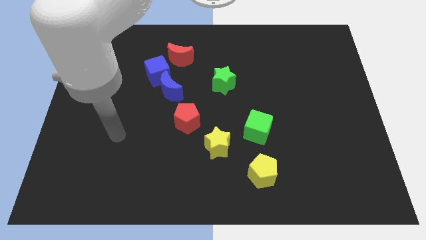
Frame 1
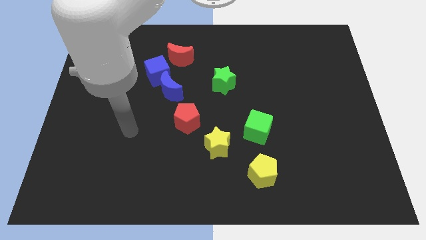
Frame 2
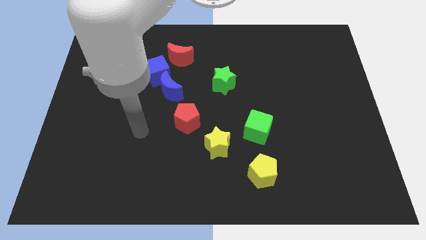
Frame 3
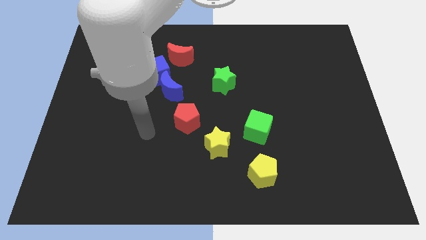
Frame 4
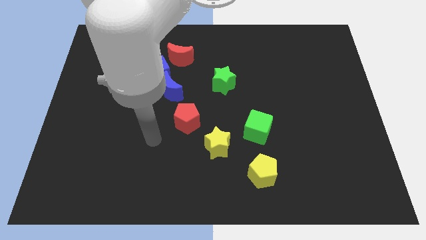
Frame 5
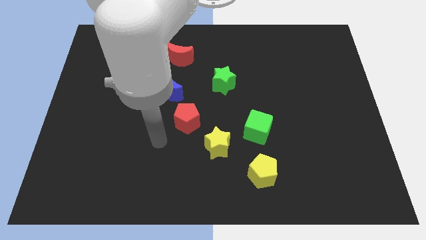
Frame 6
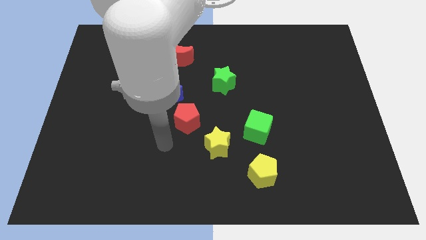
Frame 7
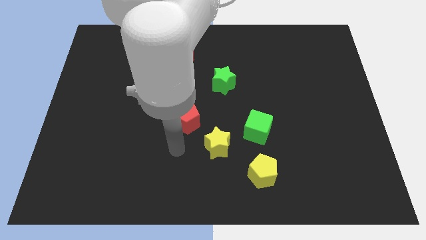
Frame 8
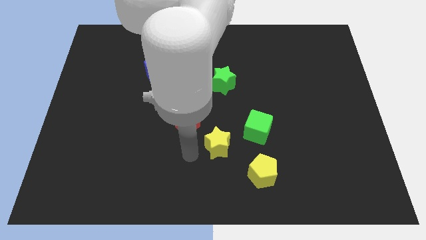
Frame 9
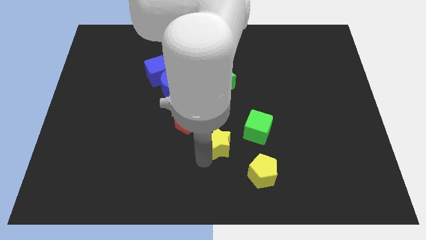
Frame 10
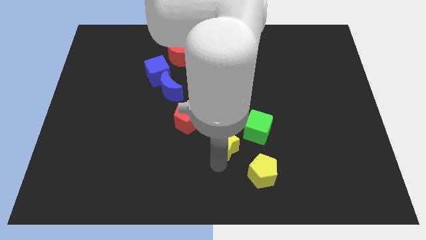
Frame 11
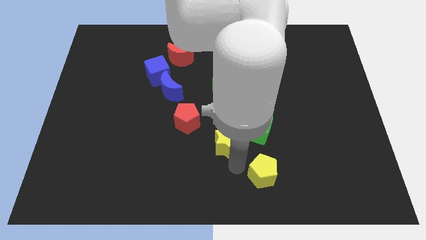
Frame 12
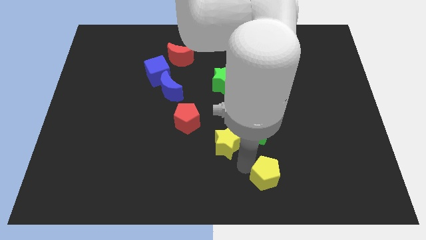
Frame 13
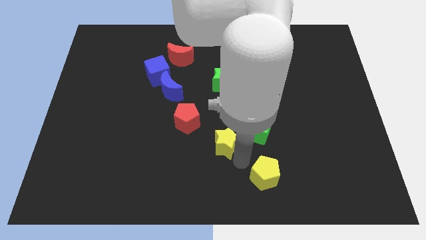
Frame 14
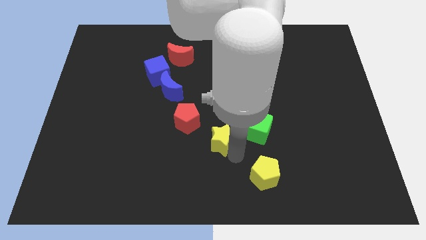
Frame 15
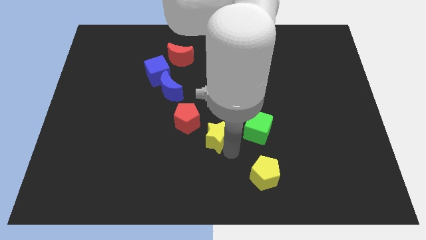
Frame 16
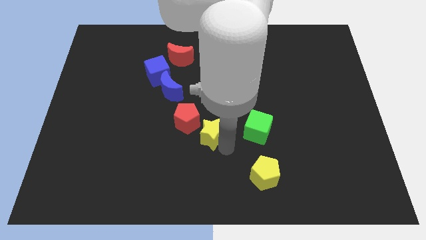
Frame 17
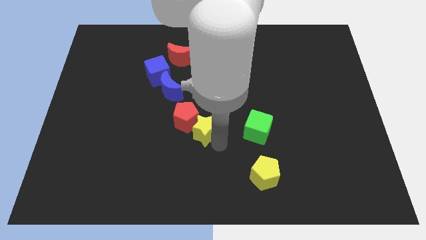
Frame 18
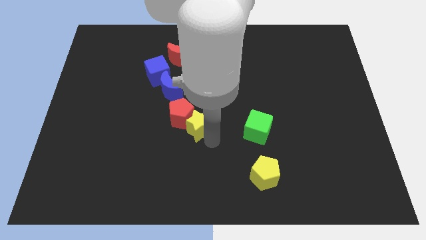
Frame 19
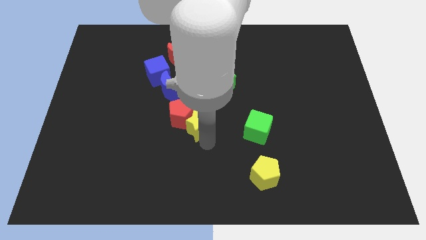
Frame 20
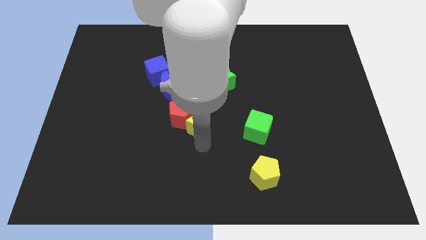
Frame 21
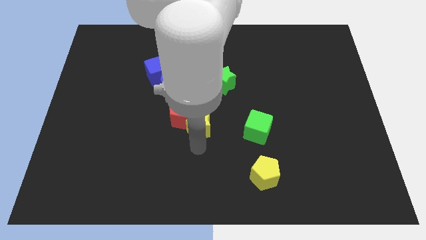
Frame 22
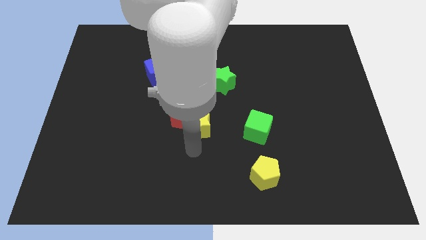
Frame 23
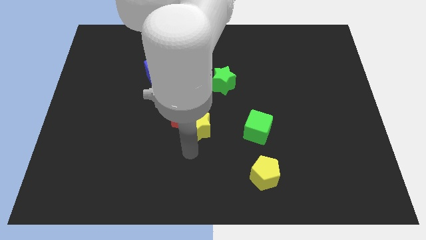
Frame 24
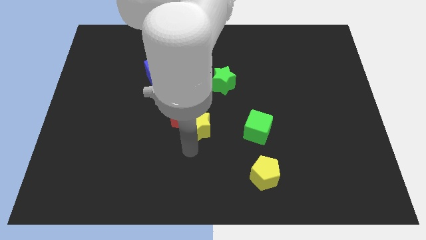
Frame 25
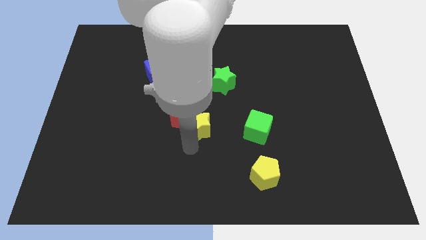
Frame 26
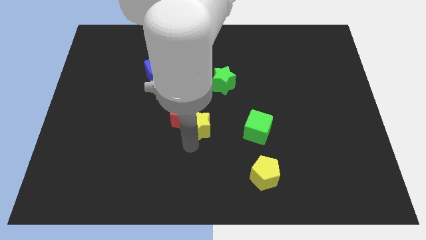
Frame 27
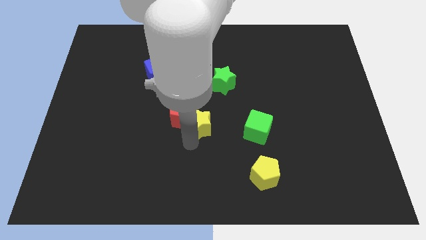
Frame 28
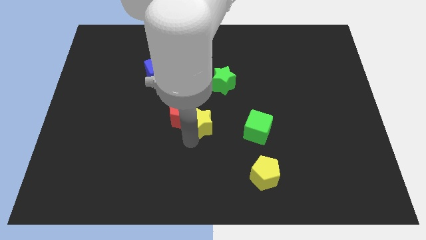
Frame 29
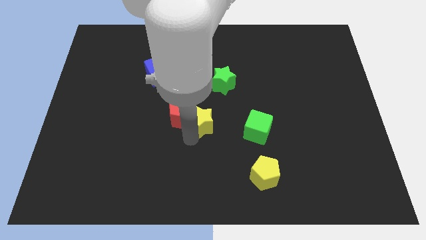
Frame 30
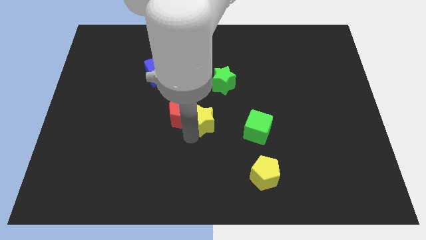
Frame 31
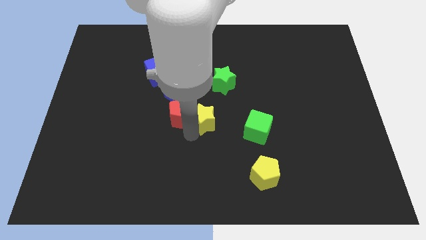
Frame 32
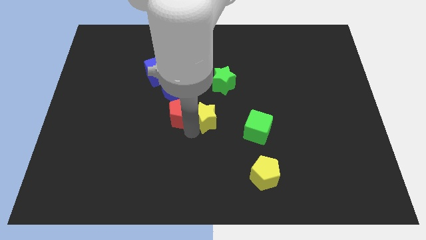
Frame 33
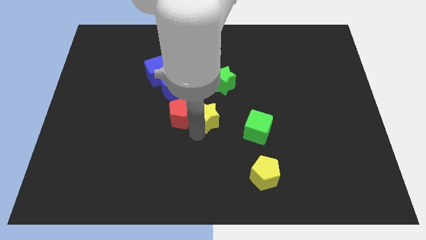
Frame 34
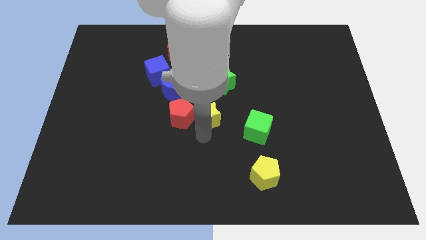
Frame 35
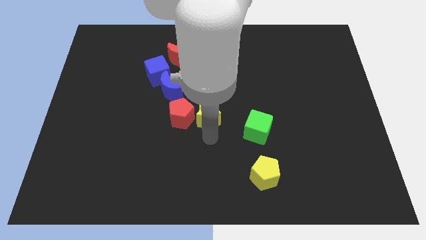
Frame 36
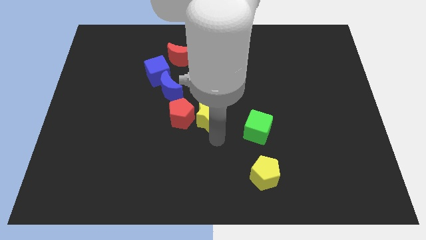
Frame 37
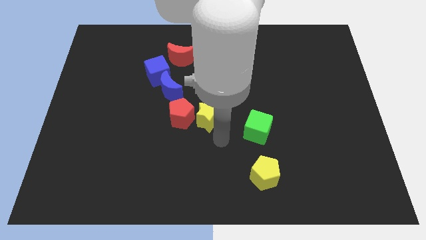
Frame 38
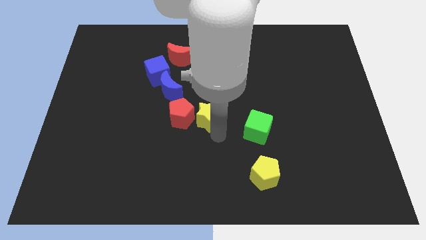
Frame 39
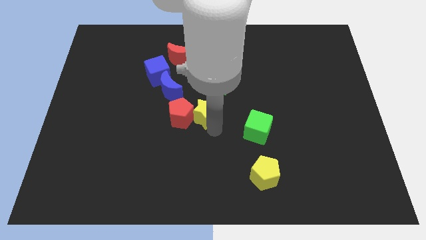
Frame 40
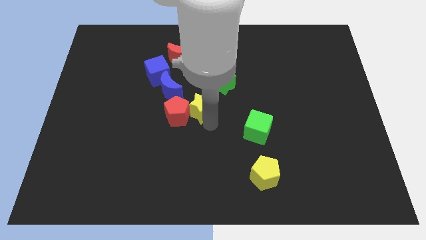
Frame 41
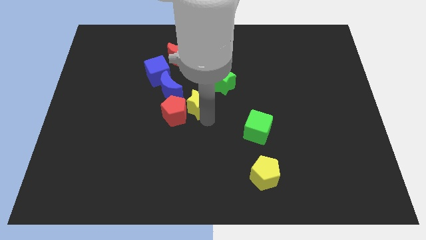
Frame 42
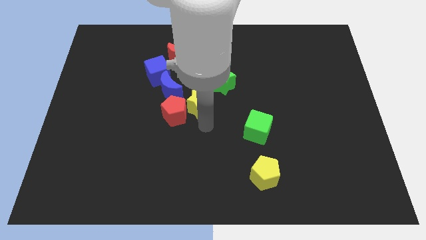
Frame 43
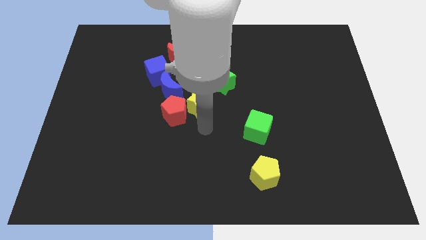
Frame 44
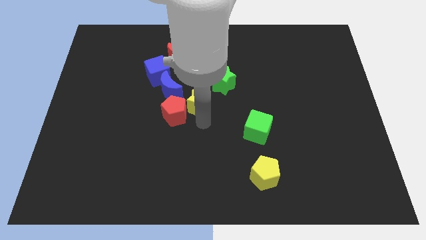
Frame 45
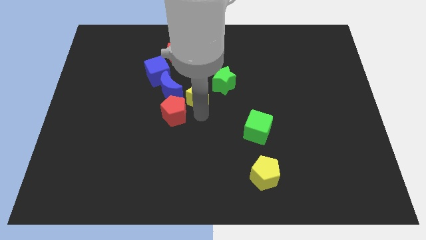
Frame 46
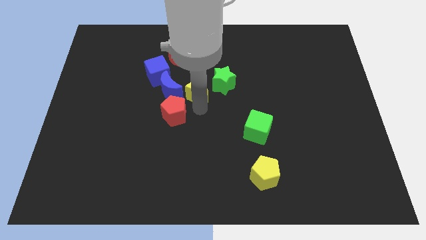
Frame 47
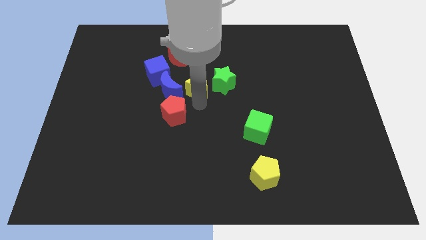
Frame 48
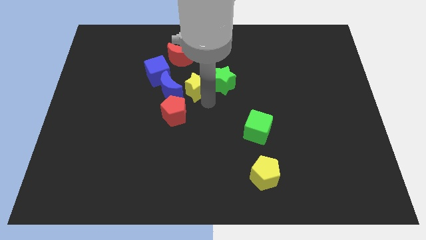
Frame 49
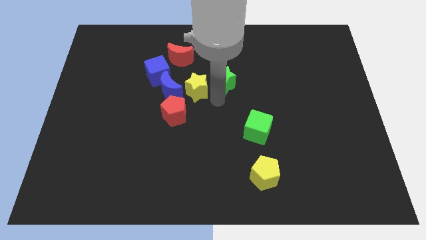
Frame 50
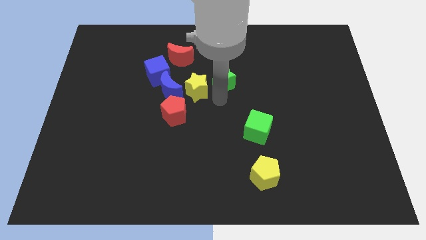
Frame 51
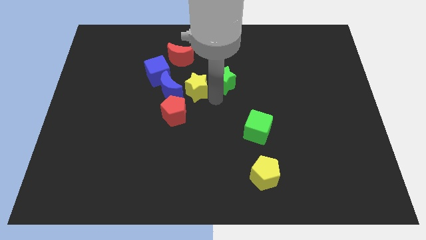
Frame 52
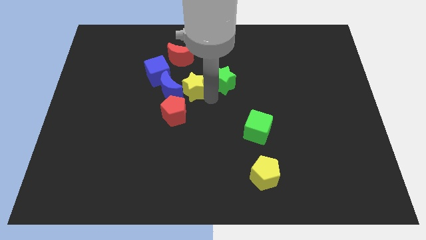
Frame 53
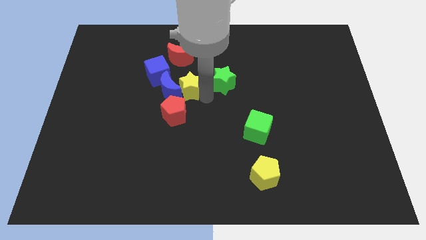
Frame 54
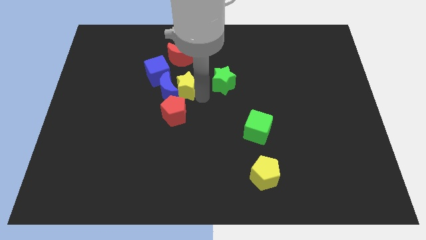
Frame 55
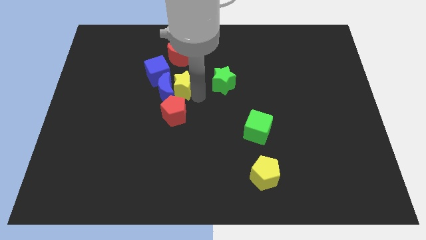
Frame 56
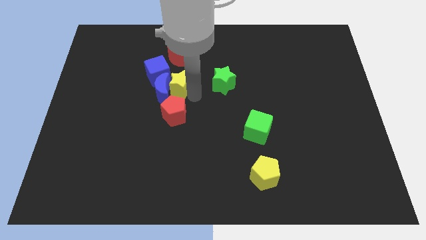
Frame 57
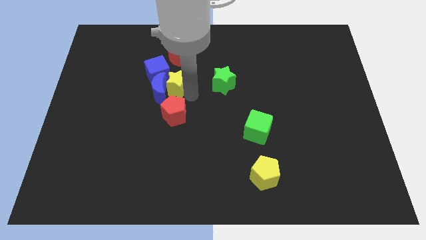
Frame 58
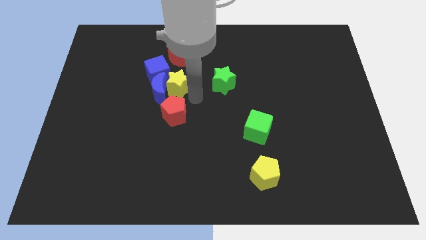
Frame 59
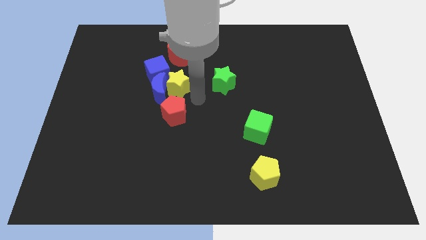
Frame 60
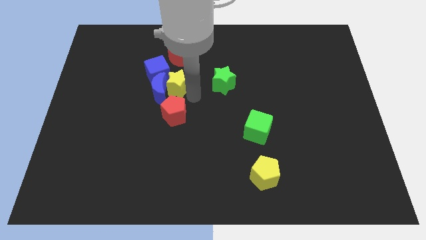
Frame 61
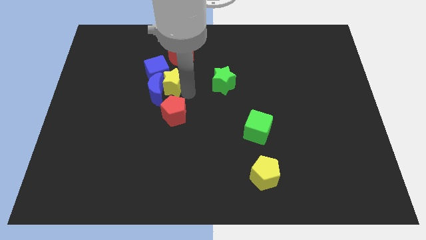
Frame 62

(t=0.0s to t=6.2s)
move the yellow star towards the blue cube

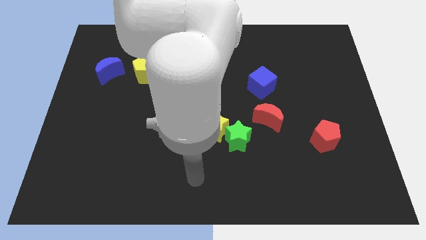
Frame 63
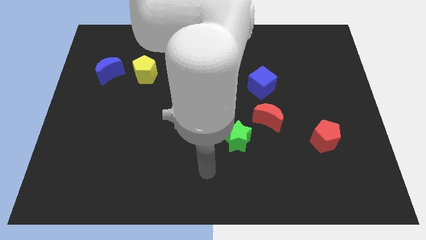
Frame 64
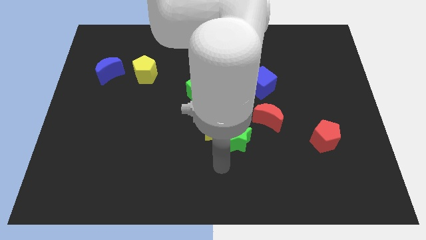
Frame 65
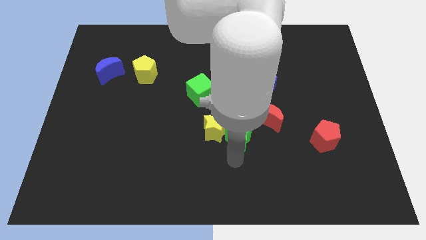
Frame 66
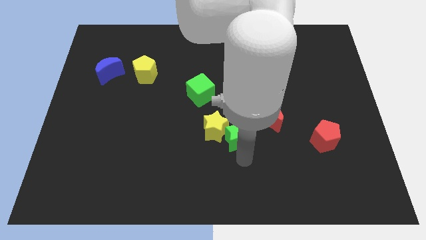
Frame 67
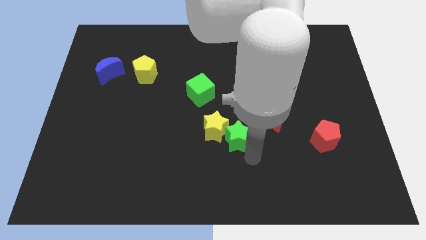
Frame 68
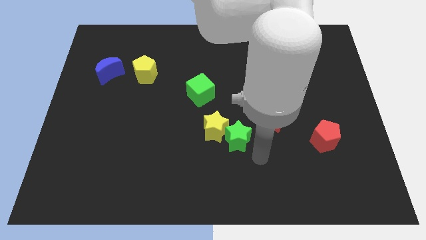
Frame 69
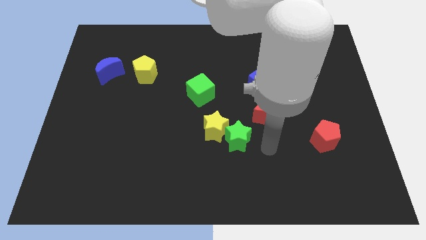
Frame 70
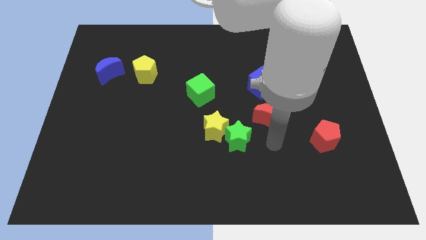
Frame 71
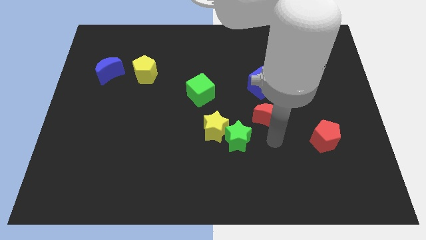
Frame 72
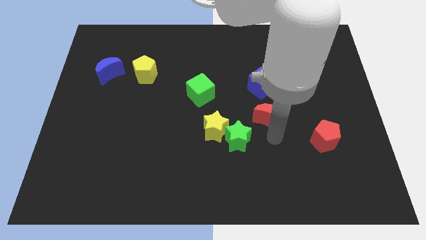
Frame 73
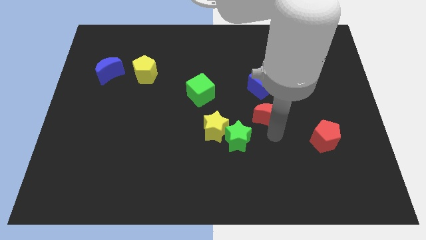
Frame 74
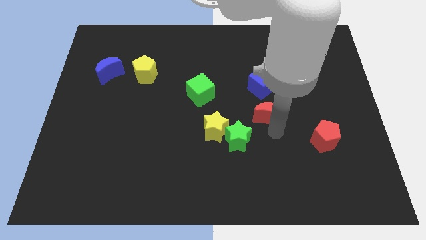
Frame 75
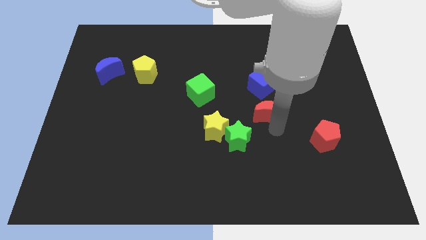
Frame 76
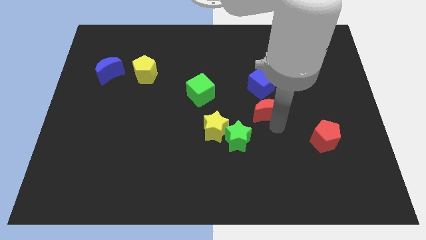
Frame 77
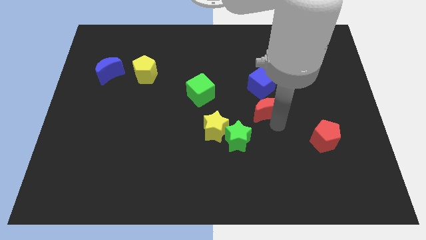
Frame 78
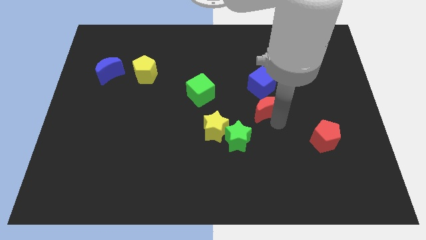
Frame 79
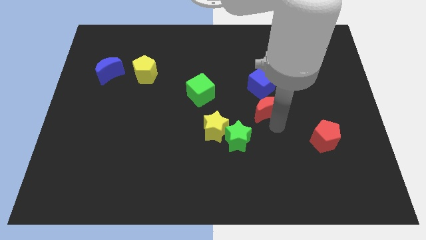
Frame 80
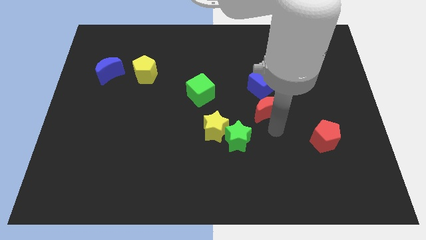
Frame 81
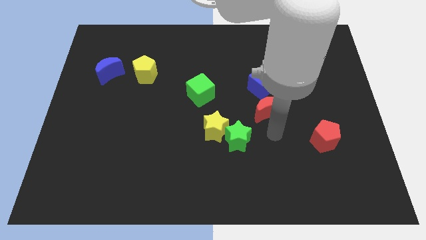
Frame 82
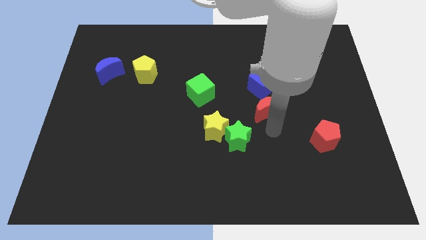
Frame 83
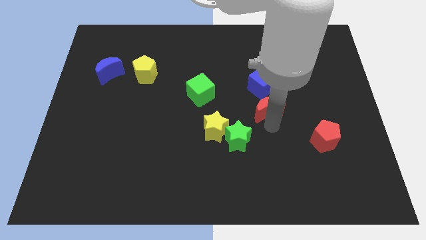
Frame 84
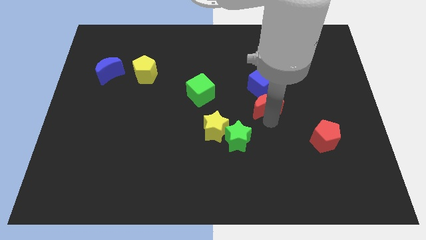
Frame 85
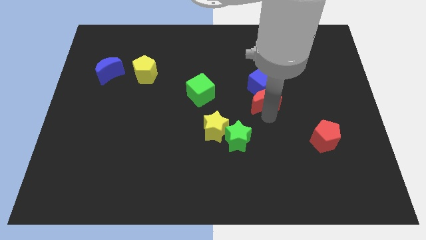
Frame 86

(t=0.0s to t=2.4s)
move the red moon to the blue cube
